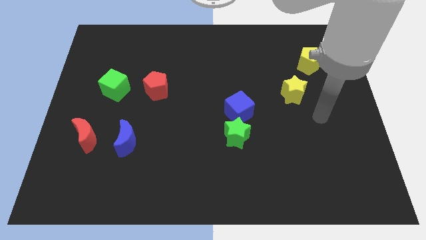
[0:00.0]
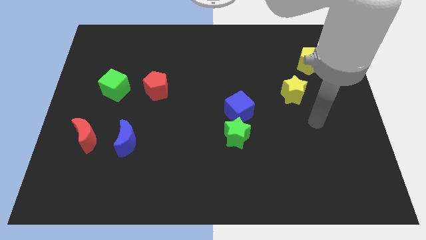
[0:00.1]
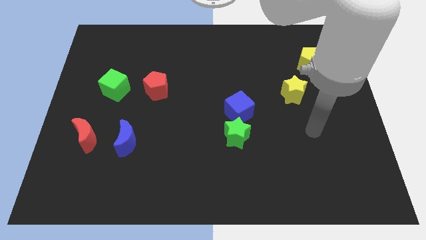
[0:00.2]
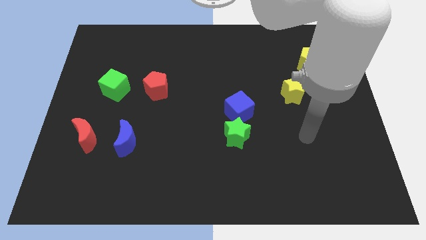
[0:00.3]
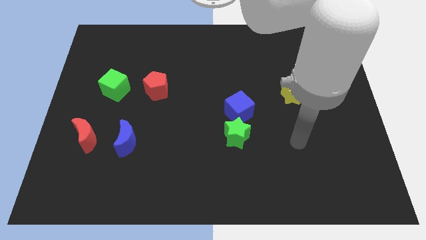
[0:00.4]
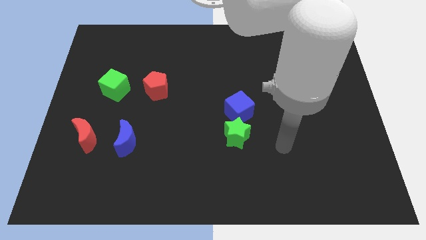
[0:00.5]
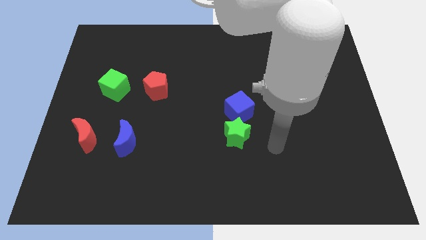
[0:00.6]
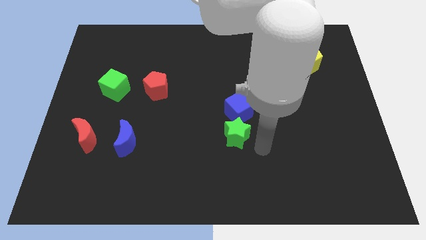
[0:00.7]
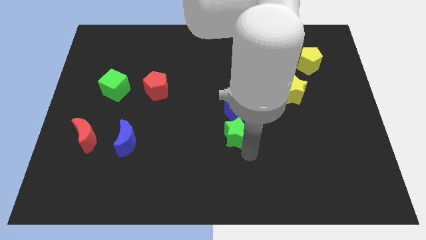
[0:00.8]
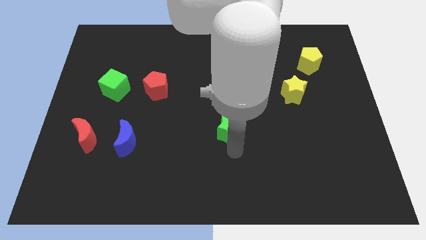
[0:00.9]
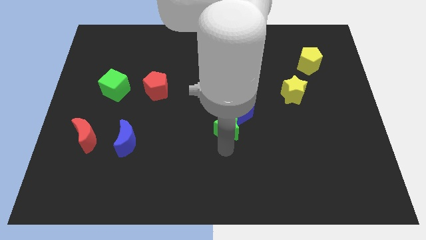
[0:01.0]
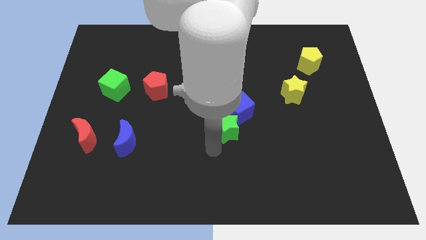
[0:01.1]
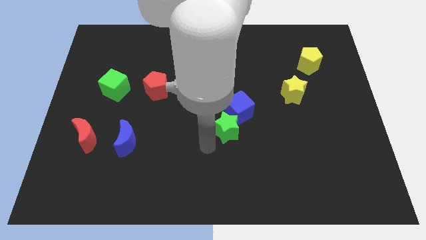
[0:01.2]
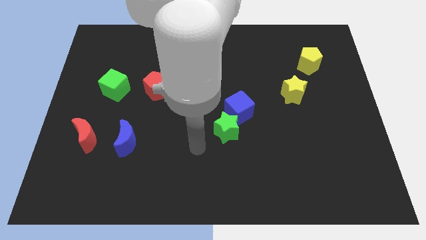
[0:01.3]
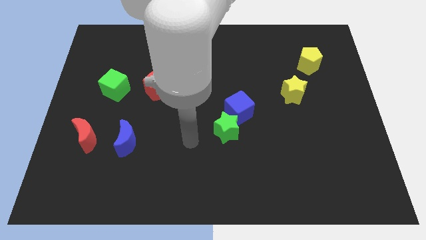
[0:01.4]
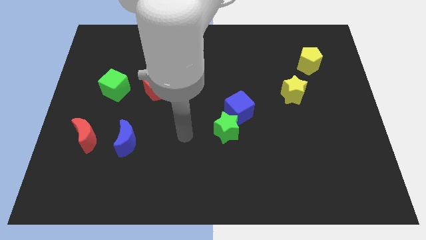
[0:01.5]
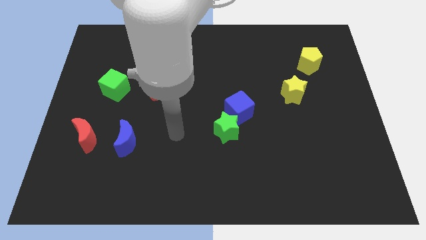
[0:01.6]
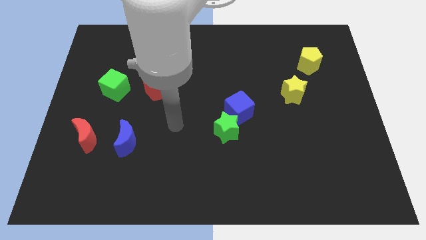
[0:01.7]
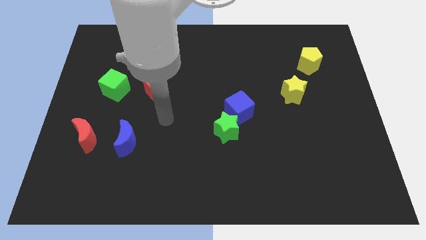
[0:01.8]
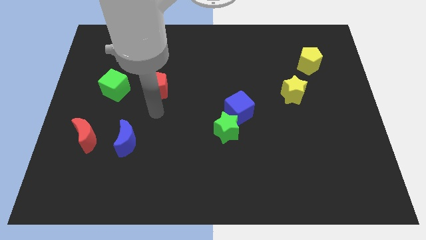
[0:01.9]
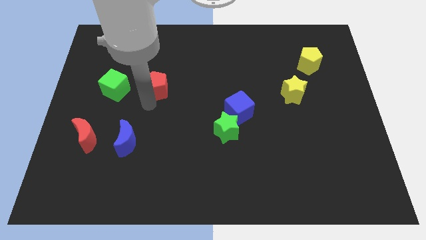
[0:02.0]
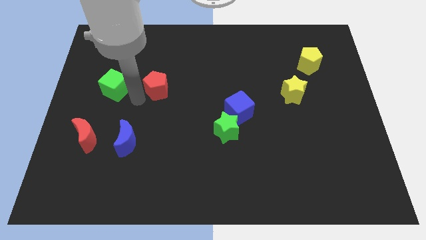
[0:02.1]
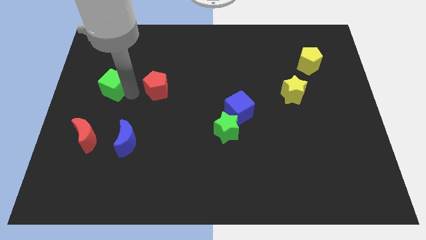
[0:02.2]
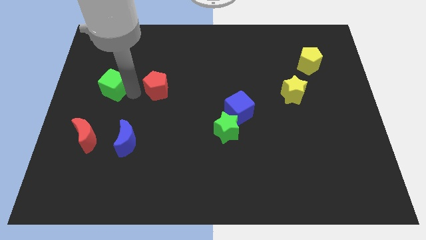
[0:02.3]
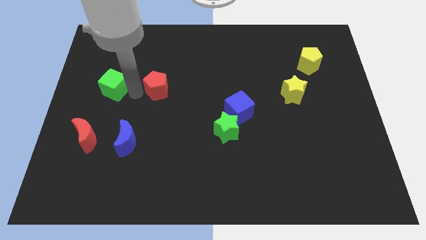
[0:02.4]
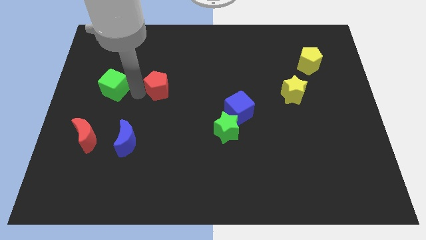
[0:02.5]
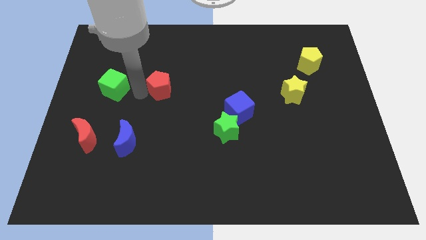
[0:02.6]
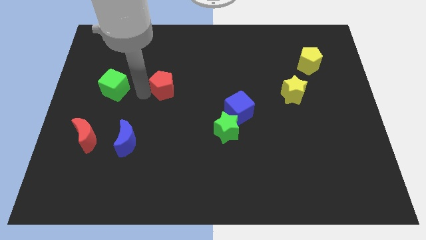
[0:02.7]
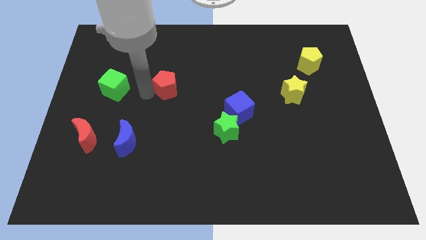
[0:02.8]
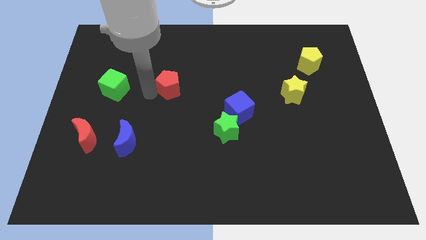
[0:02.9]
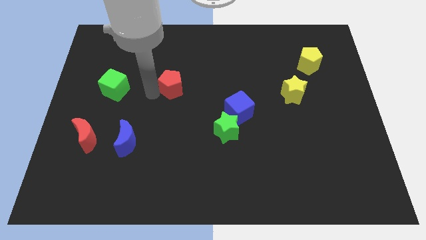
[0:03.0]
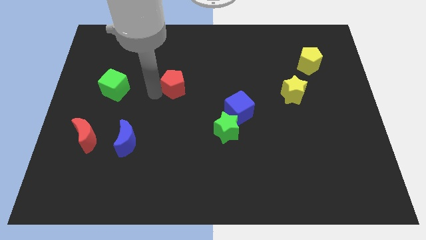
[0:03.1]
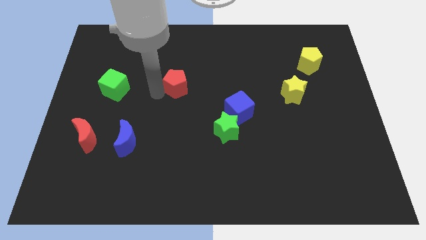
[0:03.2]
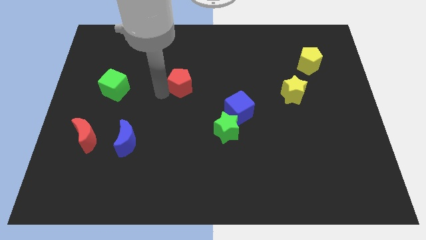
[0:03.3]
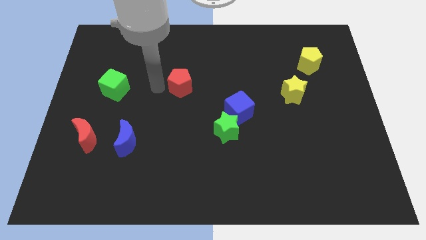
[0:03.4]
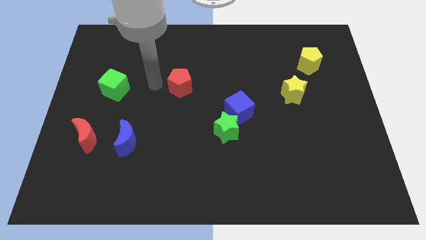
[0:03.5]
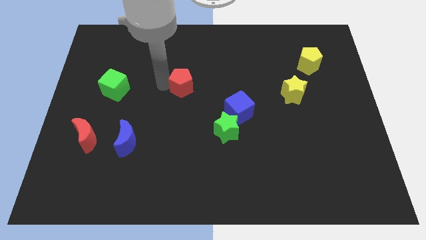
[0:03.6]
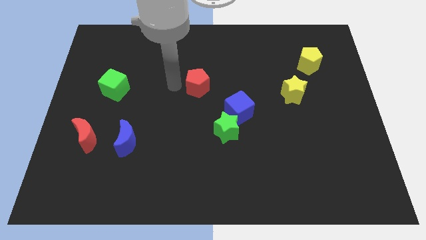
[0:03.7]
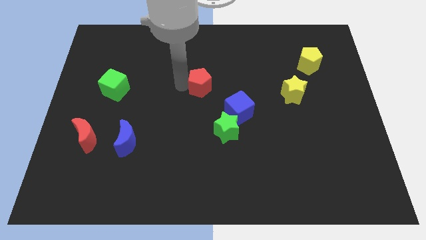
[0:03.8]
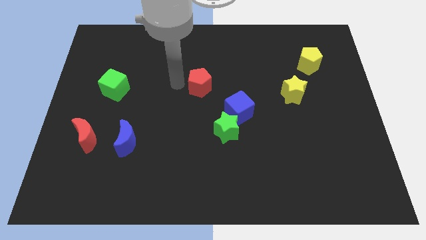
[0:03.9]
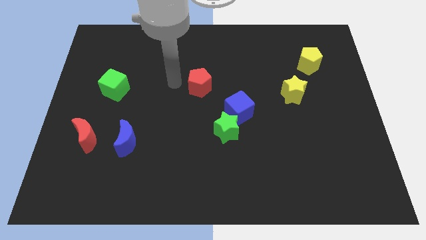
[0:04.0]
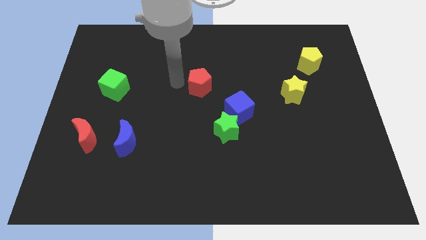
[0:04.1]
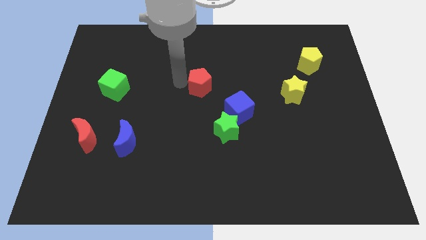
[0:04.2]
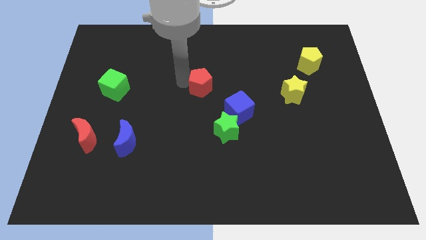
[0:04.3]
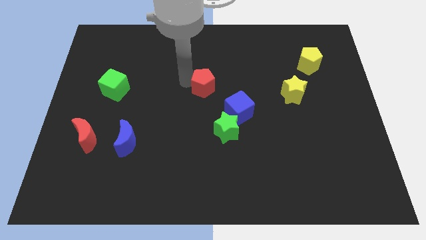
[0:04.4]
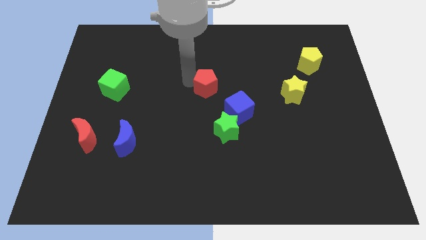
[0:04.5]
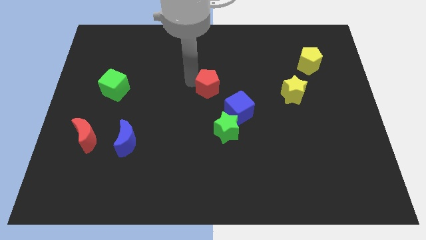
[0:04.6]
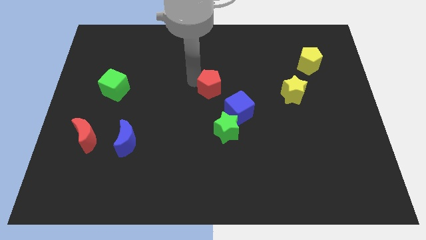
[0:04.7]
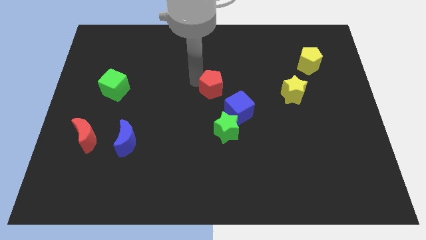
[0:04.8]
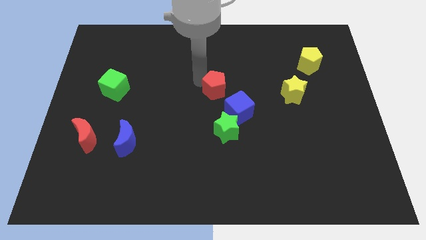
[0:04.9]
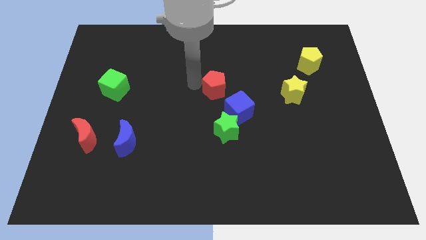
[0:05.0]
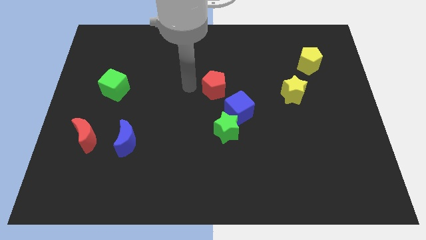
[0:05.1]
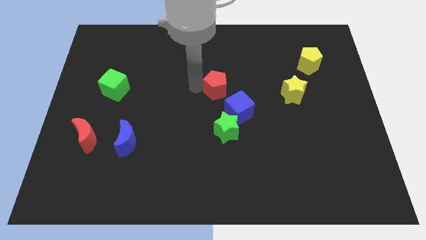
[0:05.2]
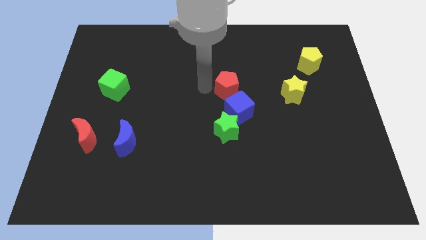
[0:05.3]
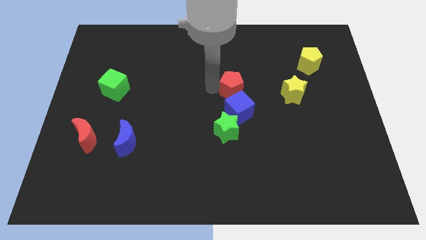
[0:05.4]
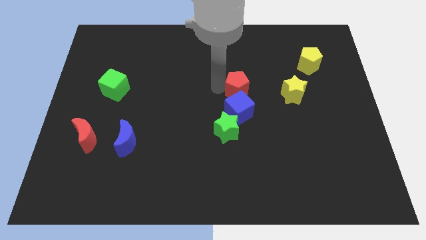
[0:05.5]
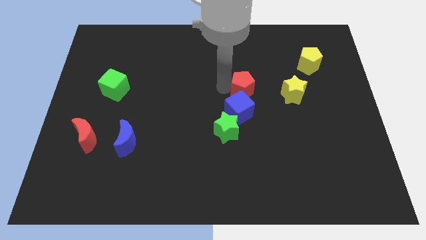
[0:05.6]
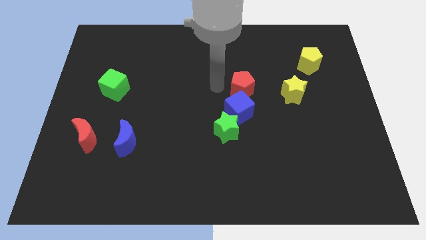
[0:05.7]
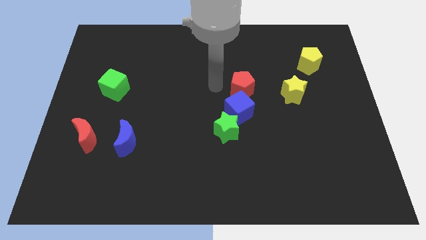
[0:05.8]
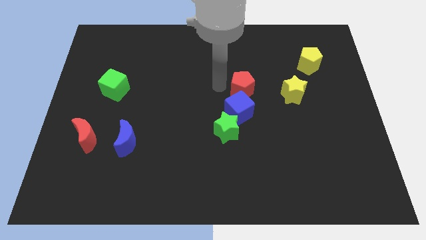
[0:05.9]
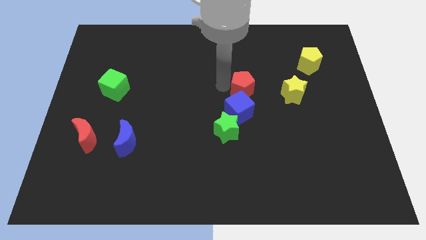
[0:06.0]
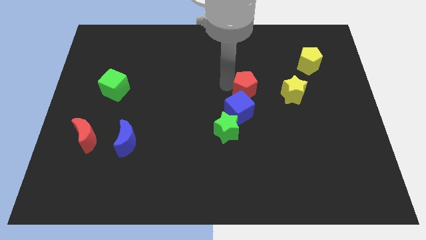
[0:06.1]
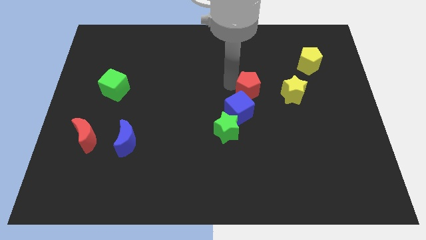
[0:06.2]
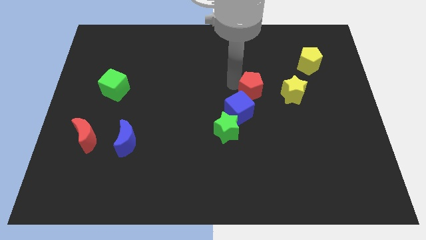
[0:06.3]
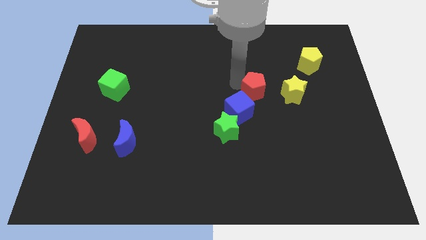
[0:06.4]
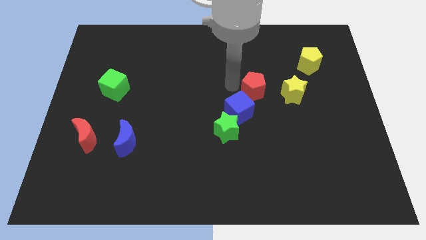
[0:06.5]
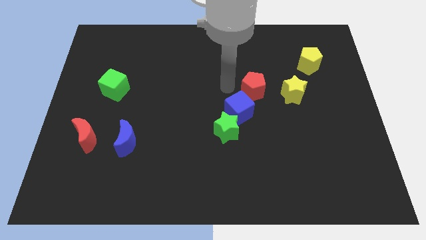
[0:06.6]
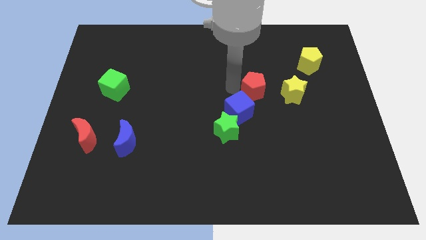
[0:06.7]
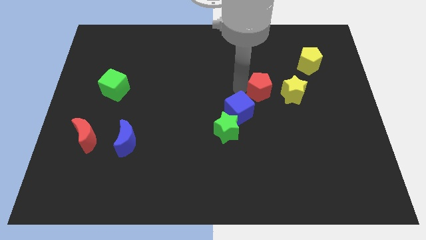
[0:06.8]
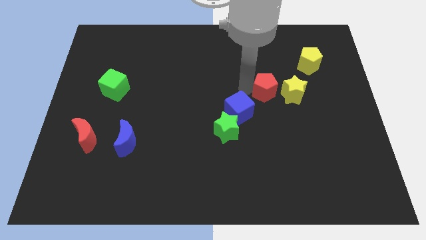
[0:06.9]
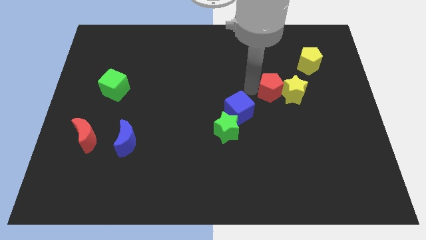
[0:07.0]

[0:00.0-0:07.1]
slide the red pentagon towards the yellow star
